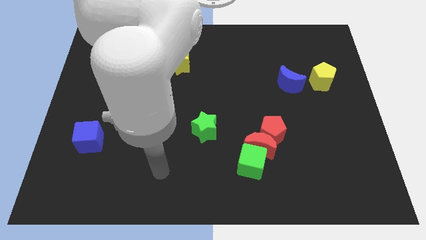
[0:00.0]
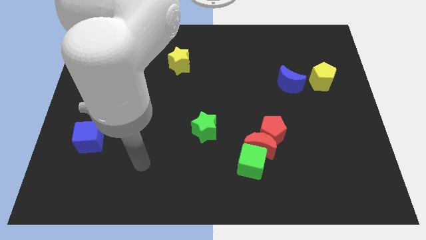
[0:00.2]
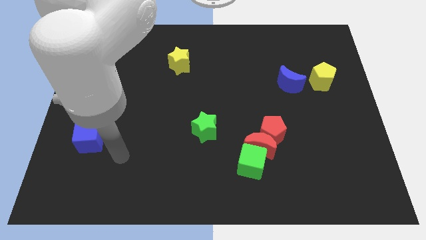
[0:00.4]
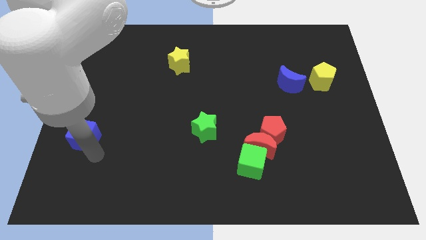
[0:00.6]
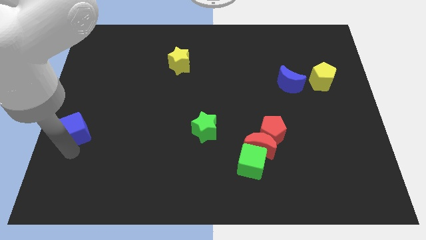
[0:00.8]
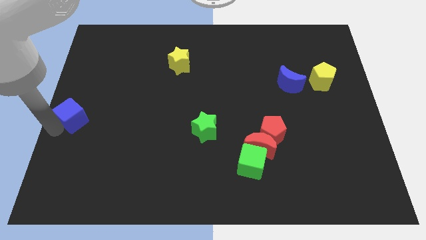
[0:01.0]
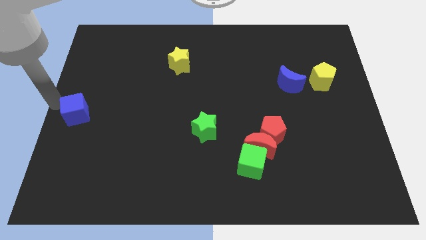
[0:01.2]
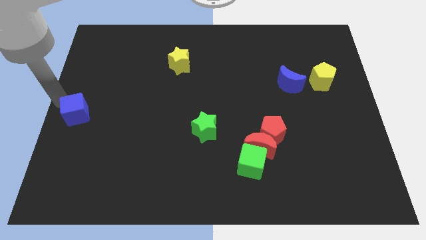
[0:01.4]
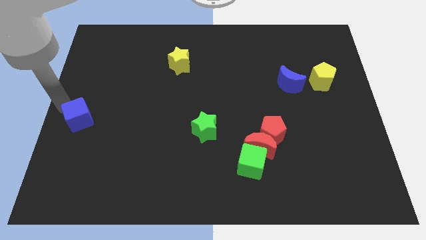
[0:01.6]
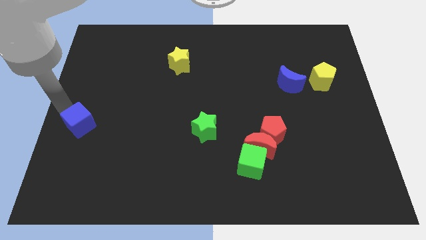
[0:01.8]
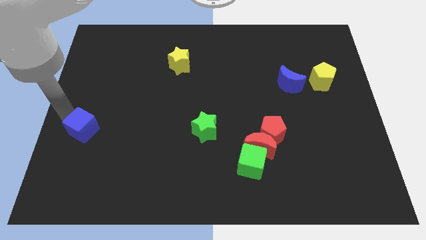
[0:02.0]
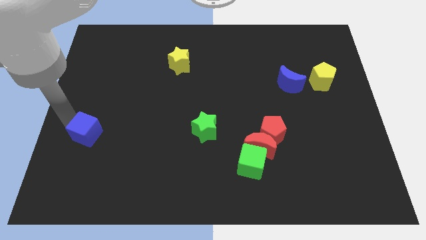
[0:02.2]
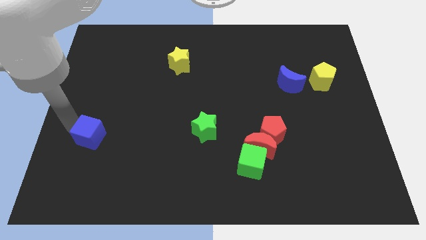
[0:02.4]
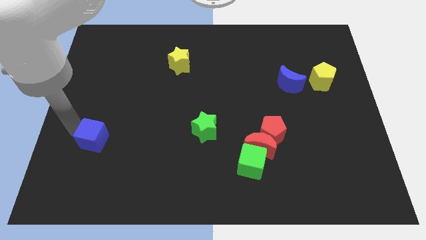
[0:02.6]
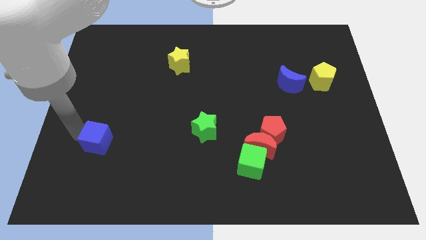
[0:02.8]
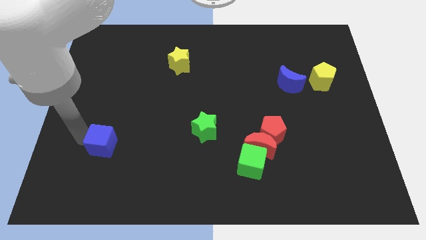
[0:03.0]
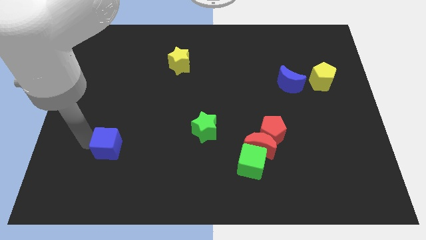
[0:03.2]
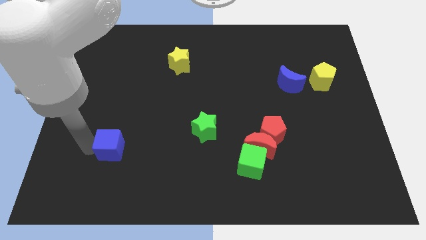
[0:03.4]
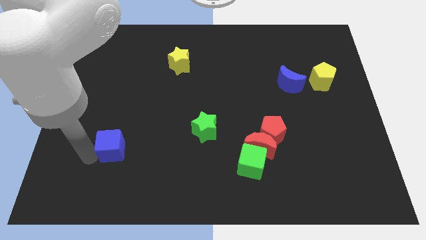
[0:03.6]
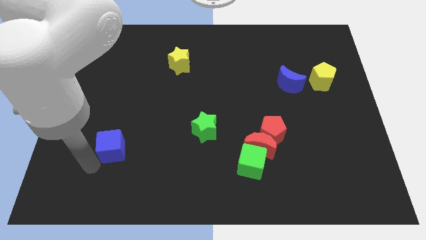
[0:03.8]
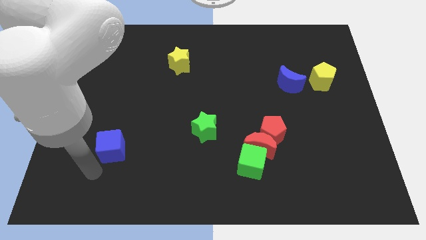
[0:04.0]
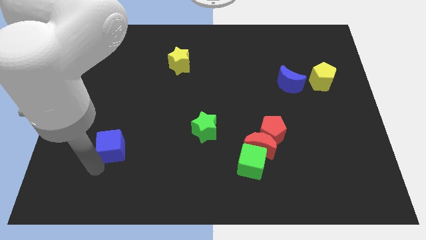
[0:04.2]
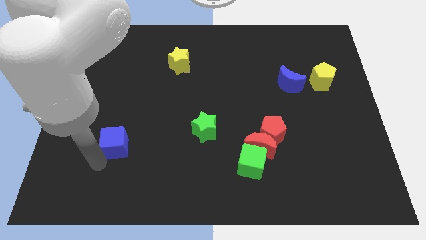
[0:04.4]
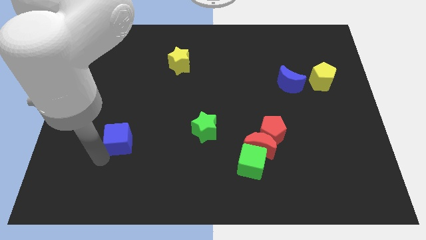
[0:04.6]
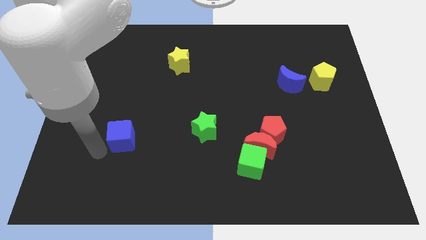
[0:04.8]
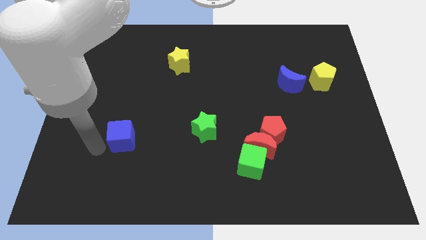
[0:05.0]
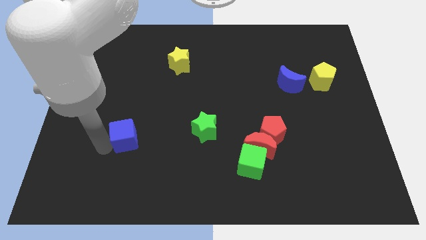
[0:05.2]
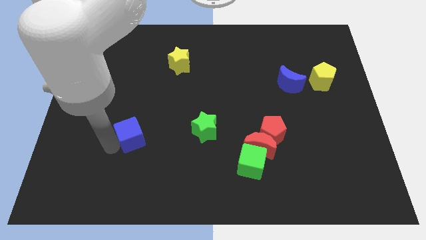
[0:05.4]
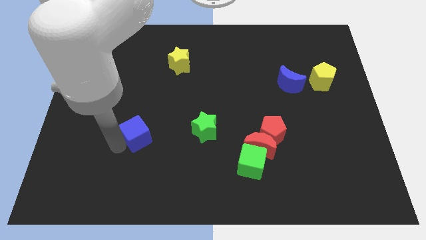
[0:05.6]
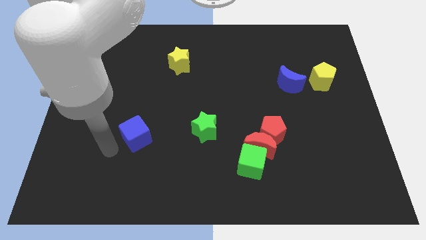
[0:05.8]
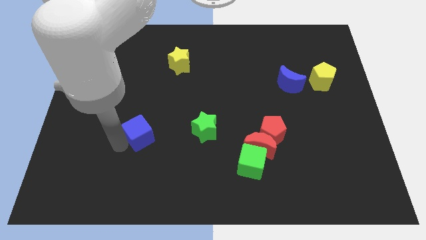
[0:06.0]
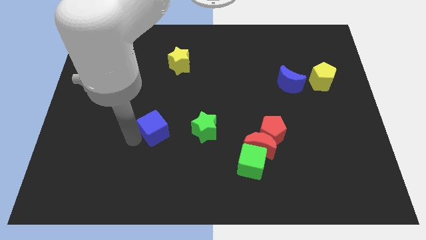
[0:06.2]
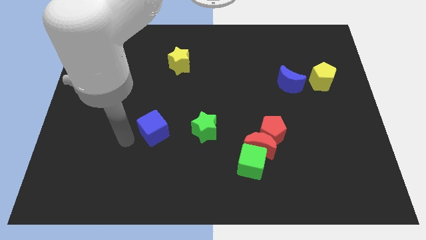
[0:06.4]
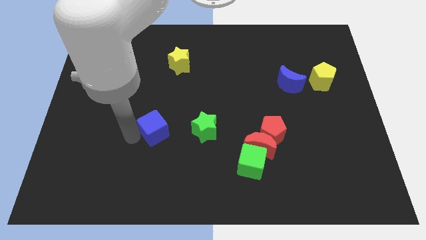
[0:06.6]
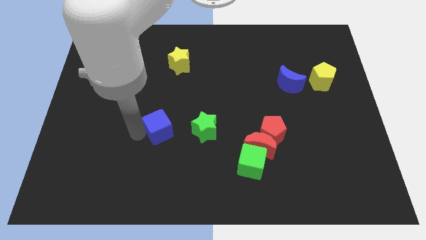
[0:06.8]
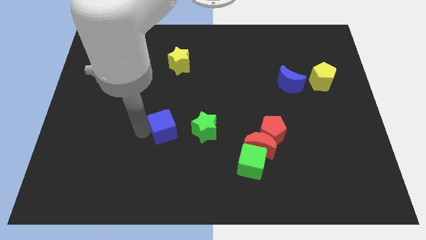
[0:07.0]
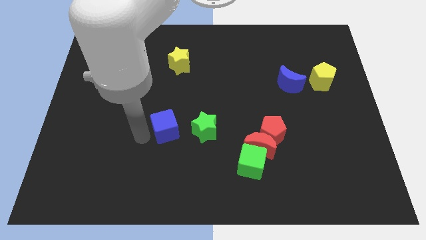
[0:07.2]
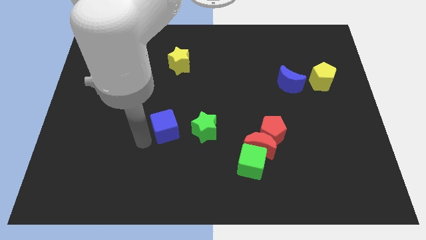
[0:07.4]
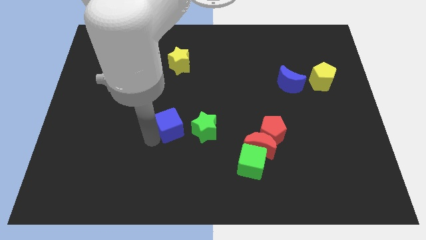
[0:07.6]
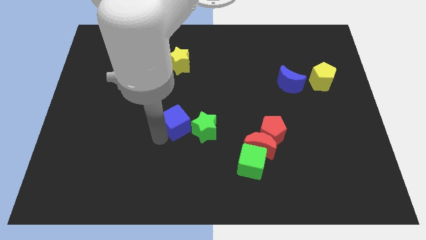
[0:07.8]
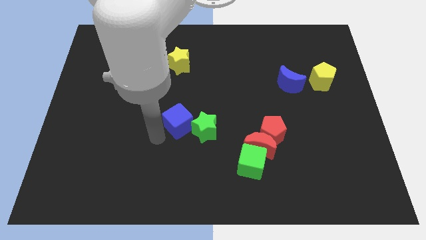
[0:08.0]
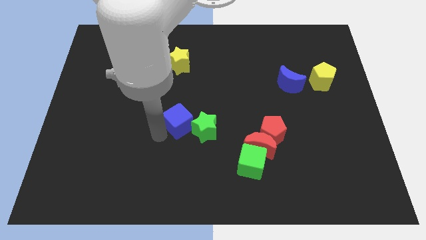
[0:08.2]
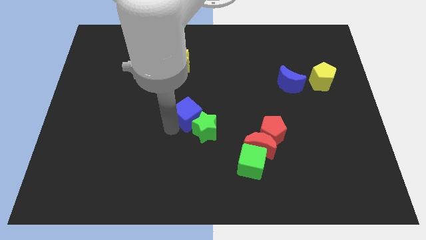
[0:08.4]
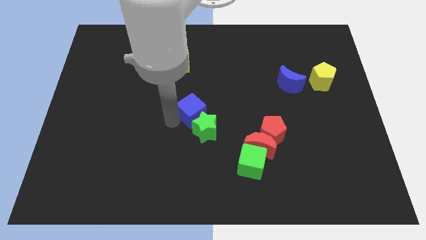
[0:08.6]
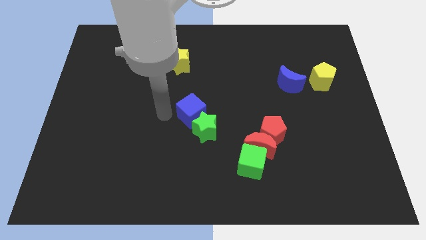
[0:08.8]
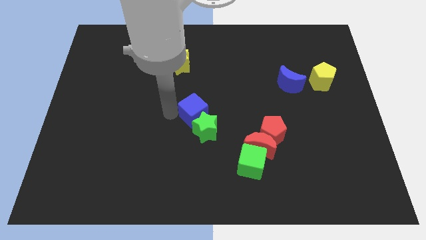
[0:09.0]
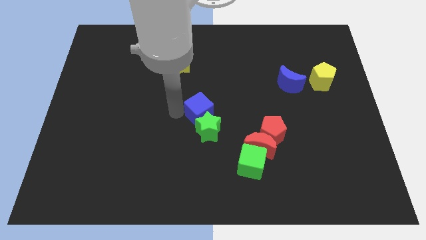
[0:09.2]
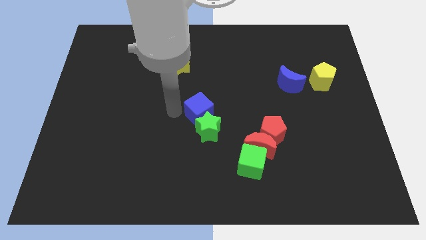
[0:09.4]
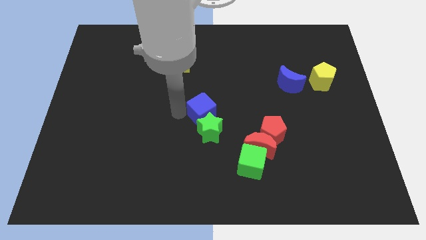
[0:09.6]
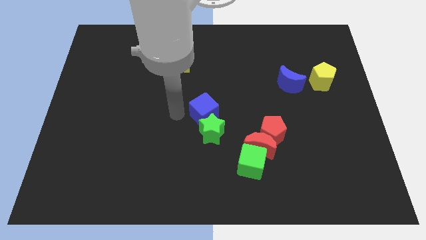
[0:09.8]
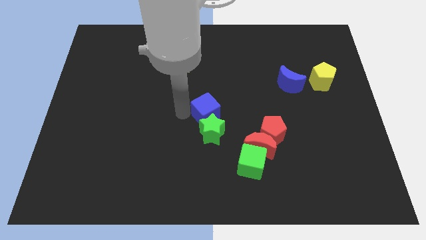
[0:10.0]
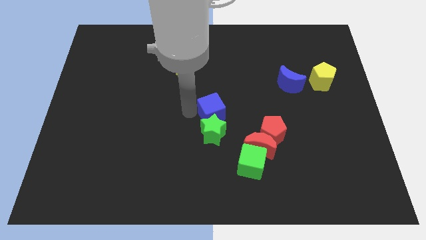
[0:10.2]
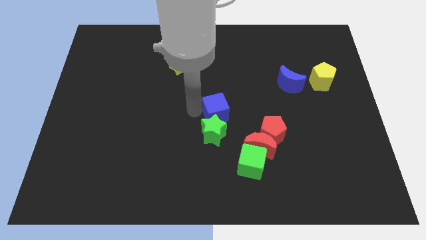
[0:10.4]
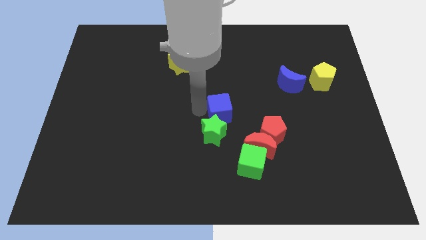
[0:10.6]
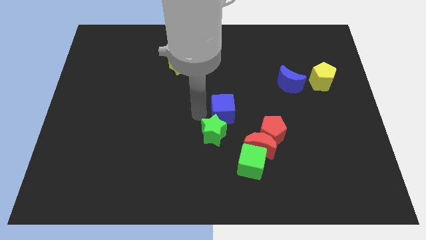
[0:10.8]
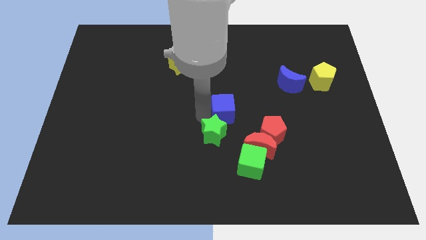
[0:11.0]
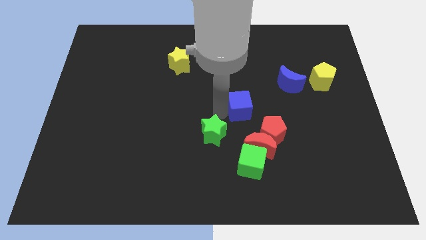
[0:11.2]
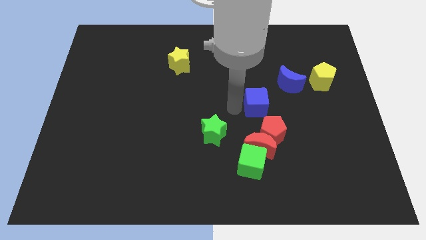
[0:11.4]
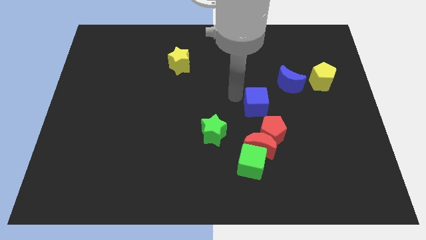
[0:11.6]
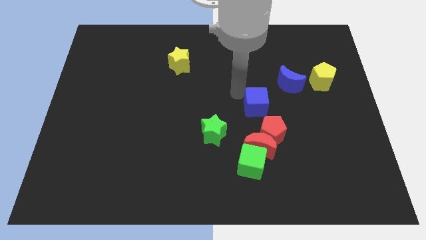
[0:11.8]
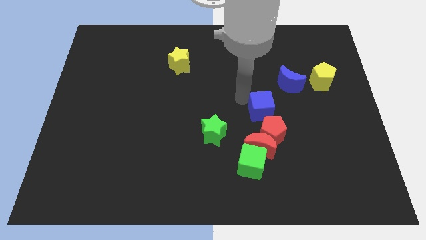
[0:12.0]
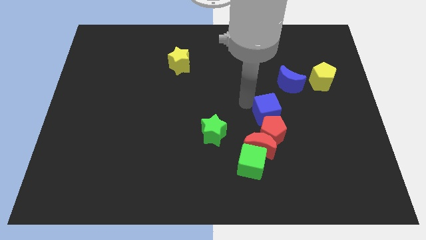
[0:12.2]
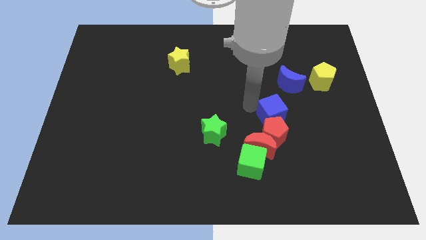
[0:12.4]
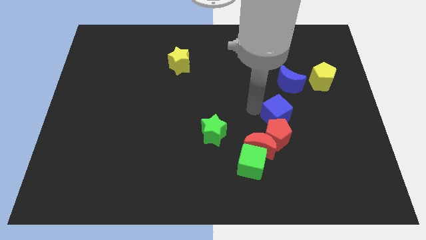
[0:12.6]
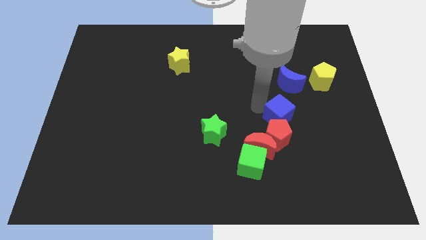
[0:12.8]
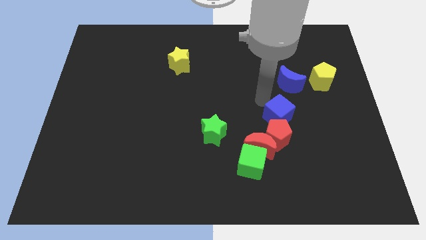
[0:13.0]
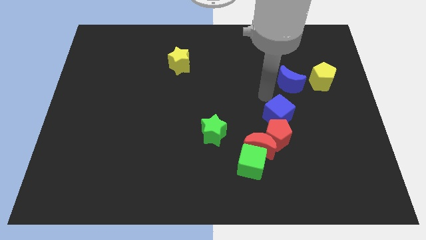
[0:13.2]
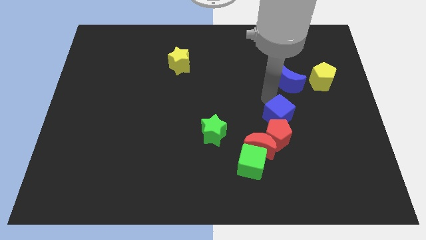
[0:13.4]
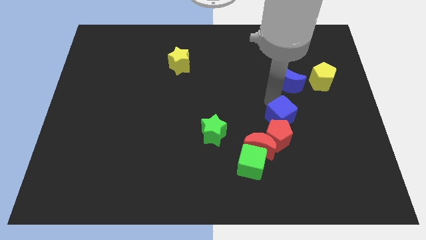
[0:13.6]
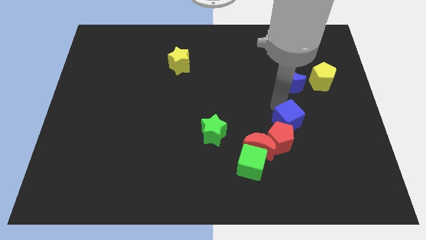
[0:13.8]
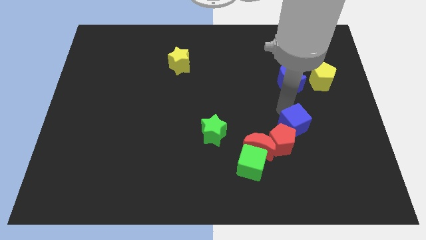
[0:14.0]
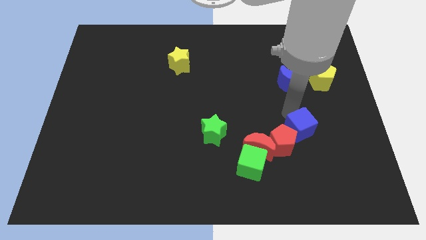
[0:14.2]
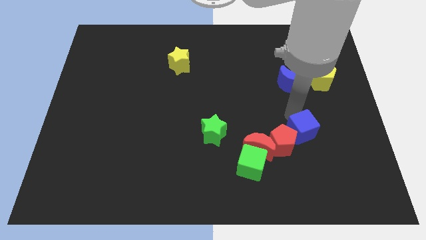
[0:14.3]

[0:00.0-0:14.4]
push the blue cube right of the red moon
